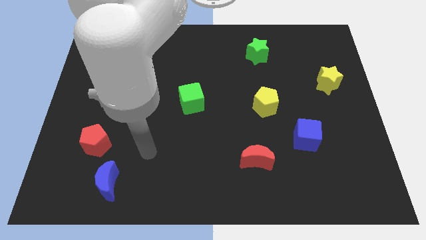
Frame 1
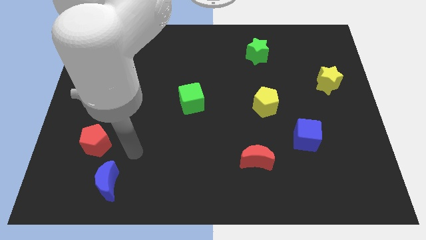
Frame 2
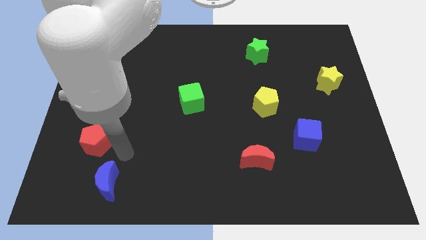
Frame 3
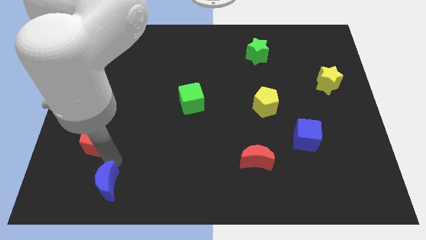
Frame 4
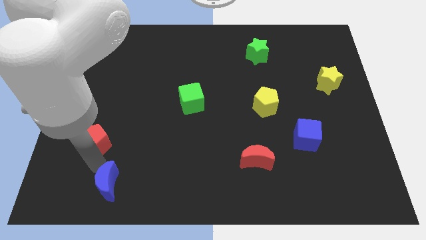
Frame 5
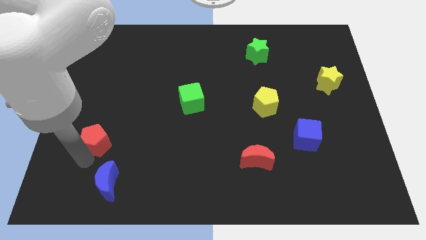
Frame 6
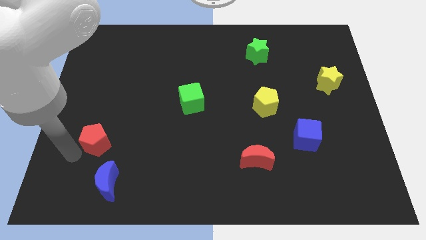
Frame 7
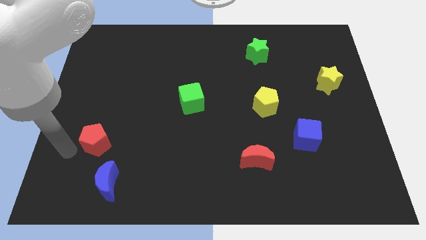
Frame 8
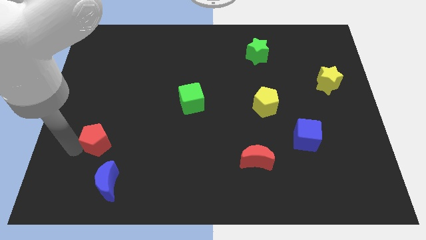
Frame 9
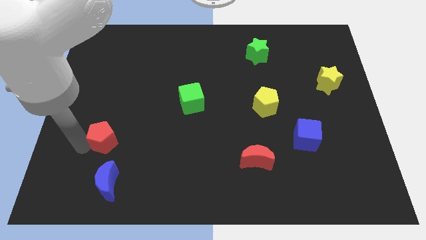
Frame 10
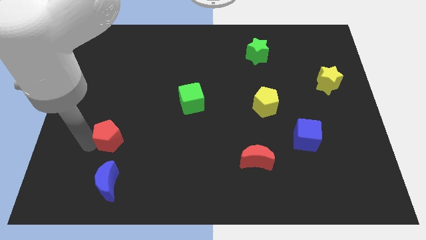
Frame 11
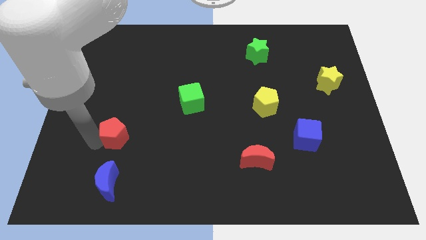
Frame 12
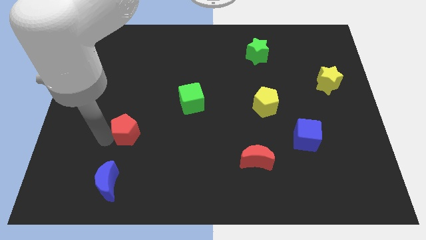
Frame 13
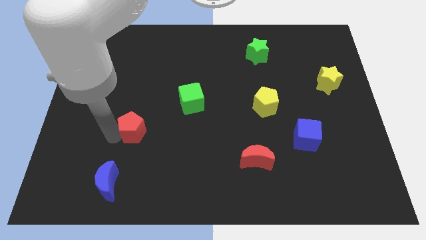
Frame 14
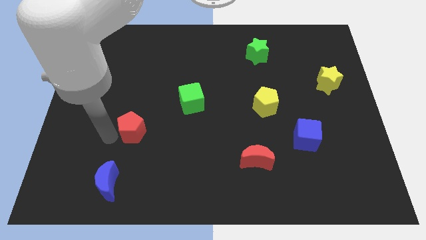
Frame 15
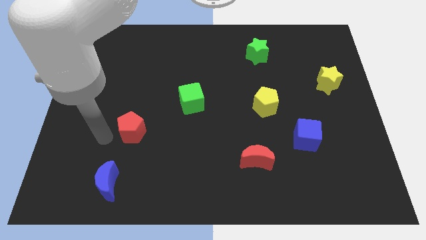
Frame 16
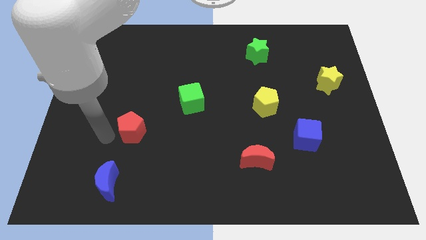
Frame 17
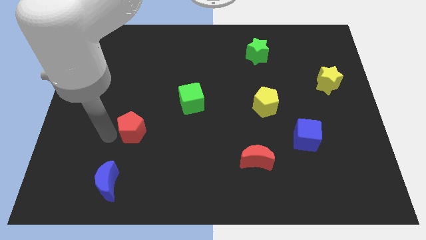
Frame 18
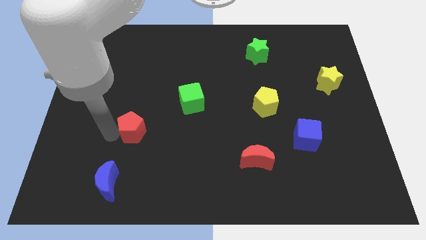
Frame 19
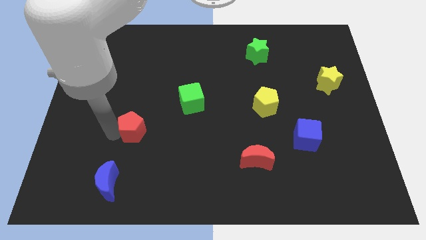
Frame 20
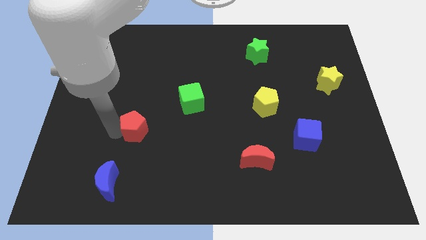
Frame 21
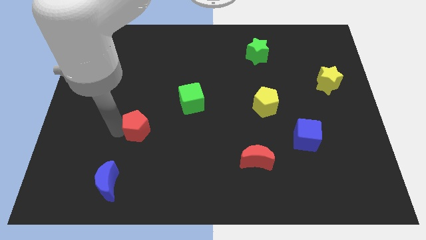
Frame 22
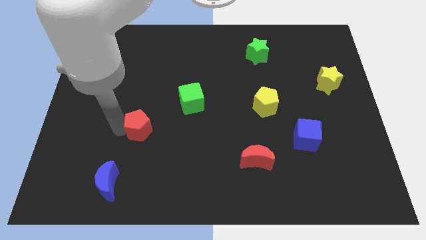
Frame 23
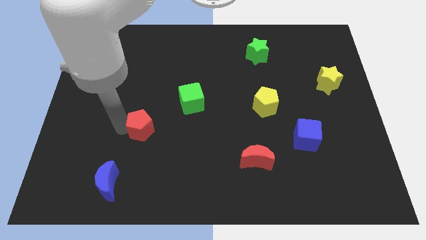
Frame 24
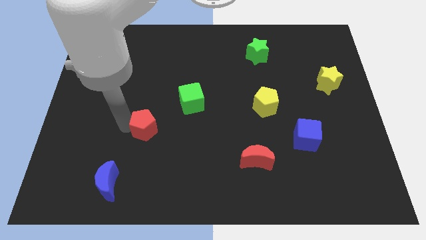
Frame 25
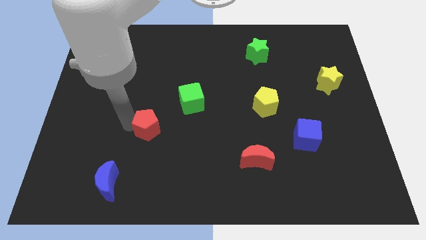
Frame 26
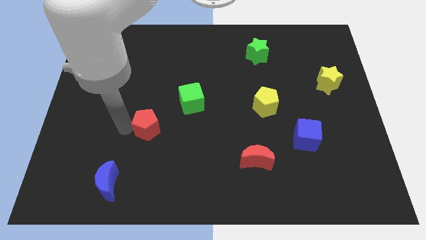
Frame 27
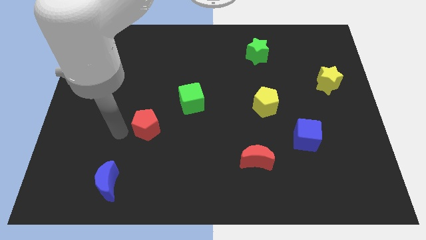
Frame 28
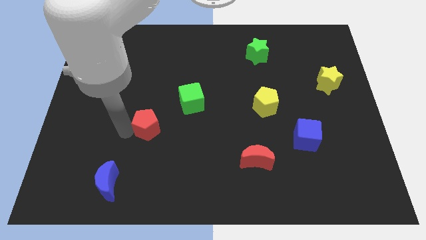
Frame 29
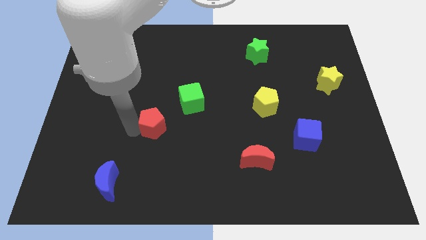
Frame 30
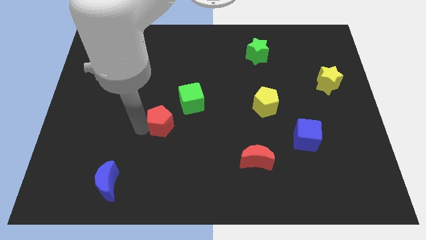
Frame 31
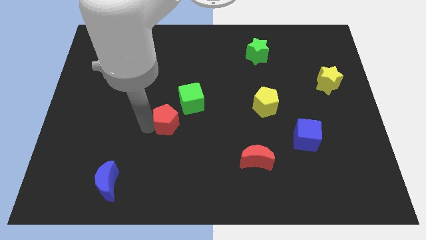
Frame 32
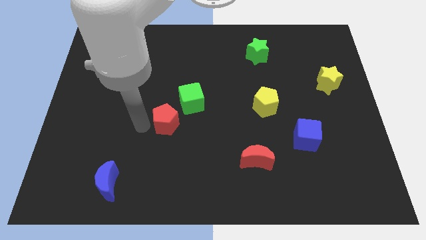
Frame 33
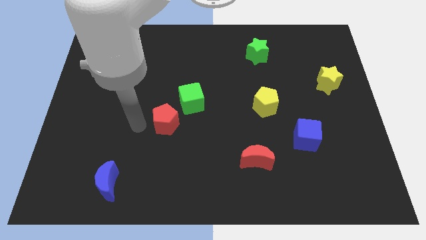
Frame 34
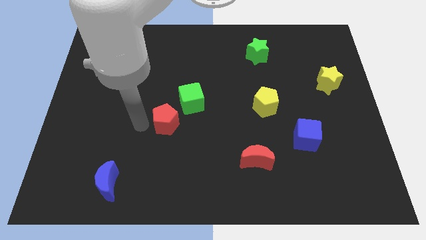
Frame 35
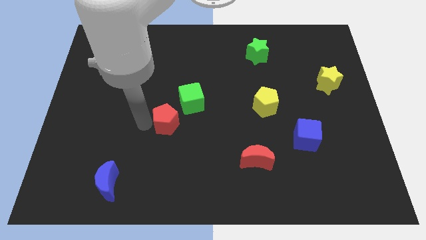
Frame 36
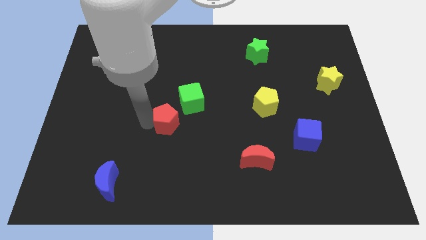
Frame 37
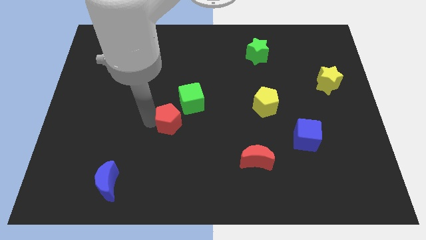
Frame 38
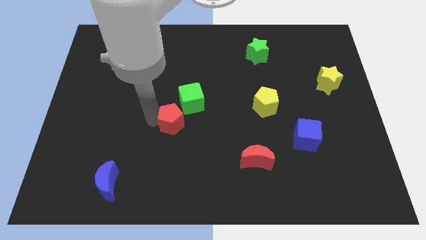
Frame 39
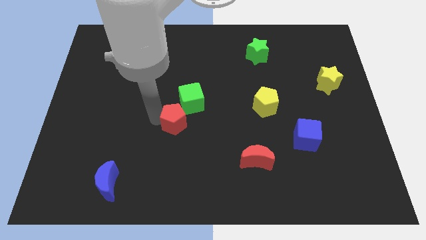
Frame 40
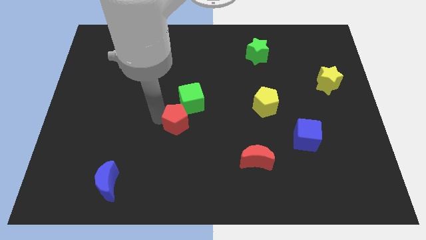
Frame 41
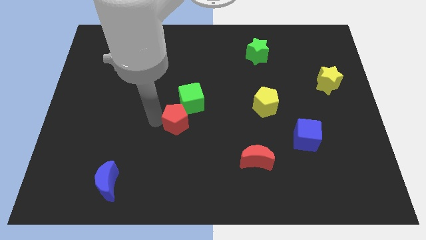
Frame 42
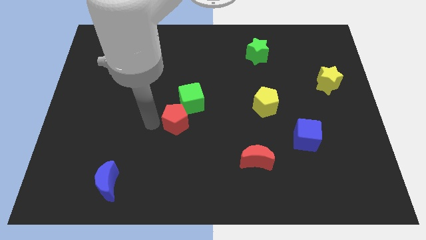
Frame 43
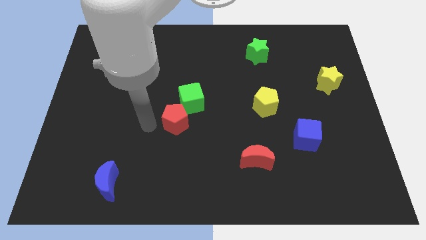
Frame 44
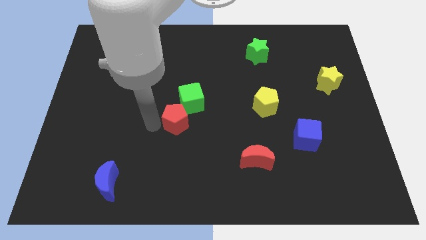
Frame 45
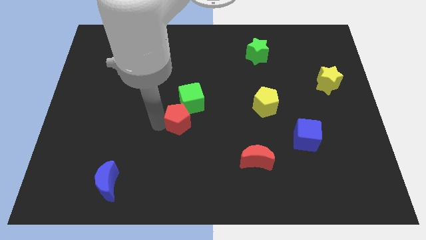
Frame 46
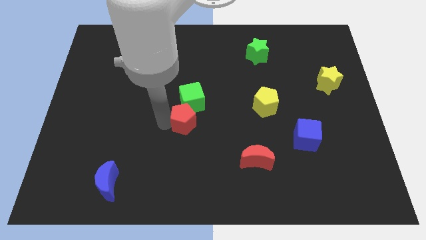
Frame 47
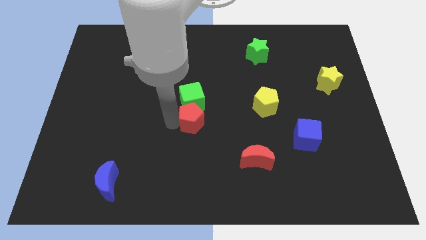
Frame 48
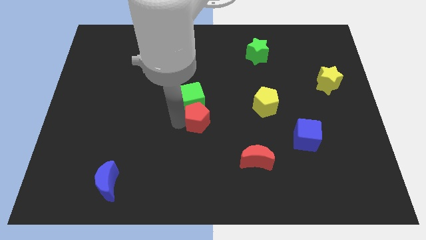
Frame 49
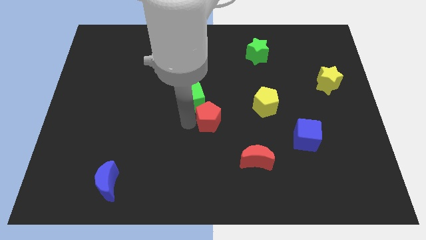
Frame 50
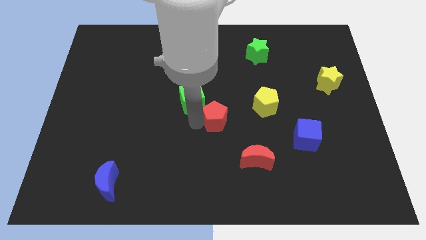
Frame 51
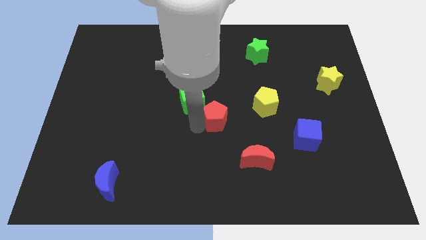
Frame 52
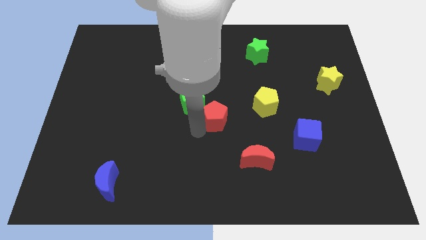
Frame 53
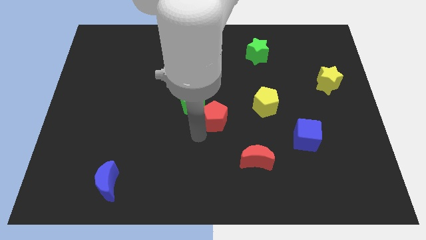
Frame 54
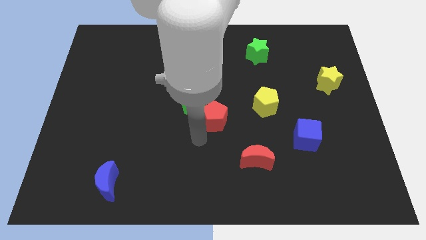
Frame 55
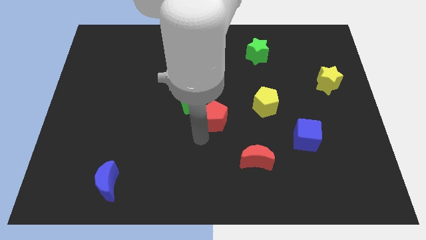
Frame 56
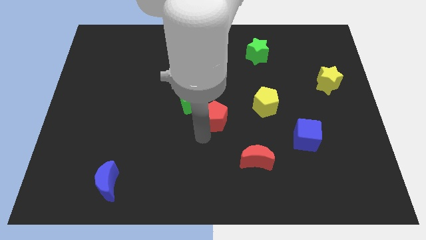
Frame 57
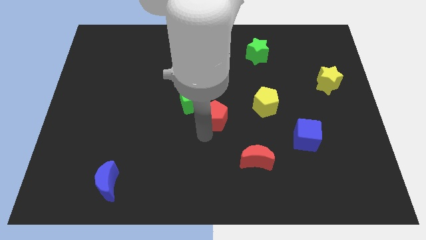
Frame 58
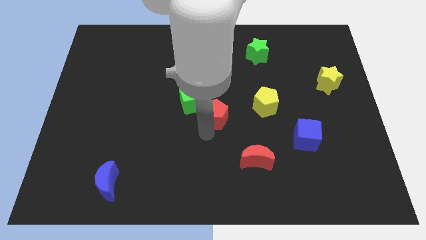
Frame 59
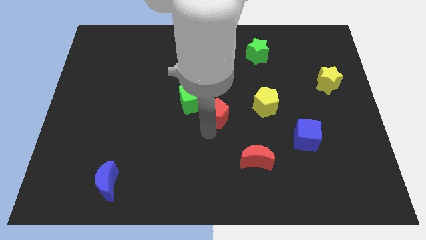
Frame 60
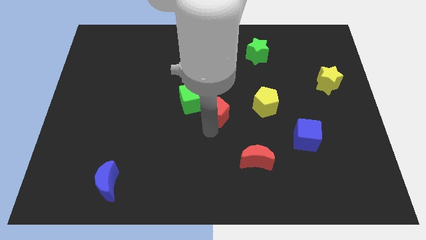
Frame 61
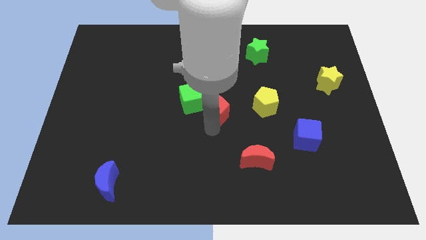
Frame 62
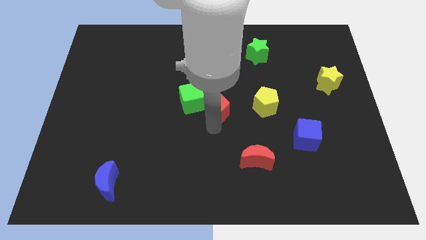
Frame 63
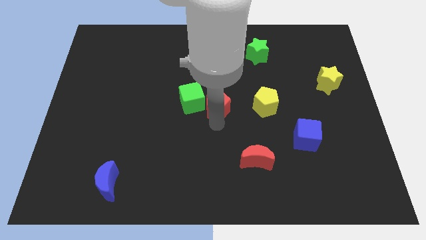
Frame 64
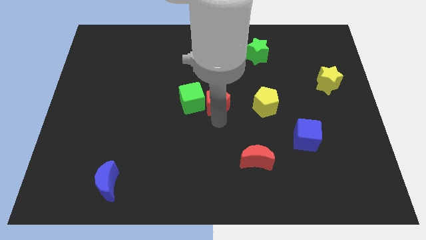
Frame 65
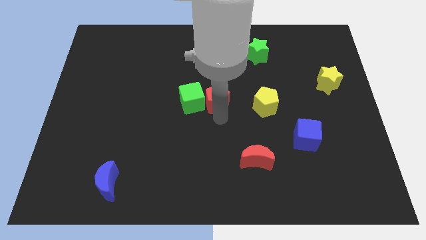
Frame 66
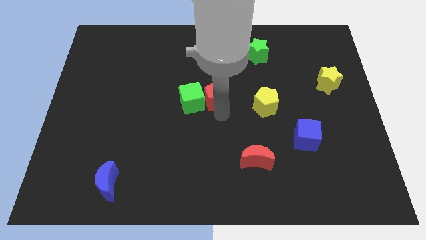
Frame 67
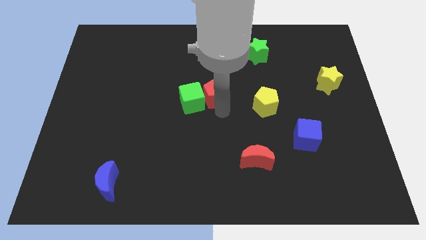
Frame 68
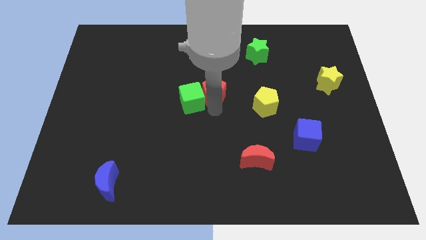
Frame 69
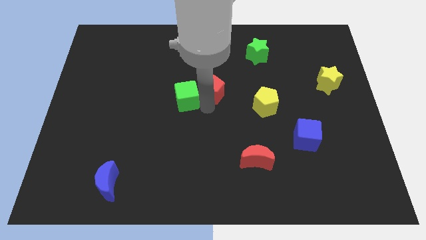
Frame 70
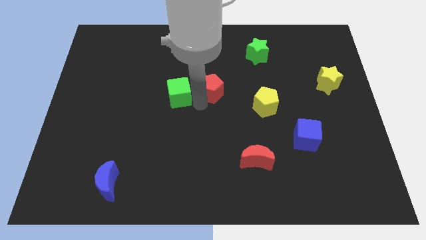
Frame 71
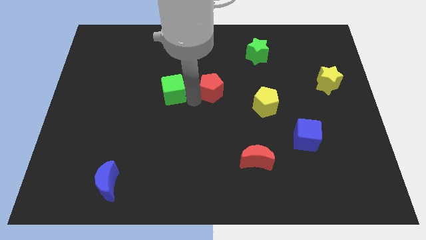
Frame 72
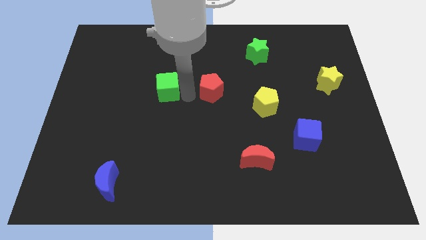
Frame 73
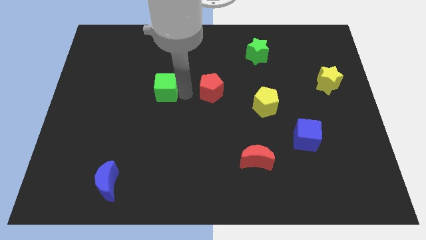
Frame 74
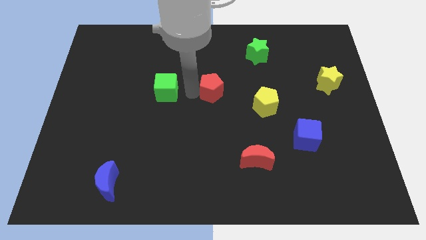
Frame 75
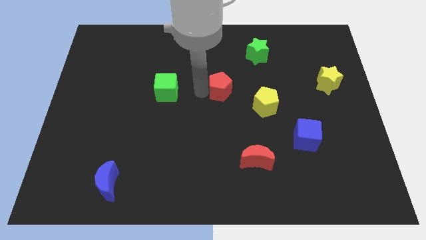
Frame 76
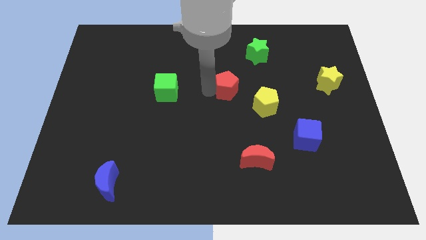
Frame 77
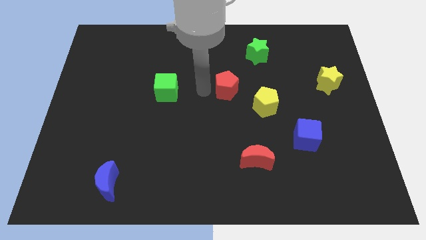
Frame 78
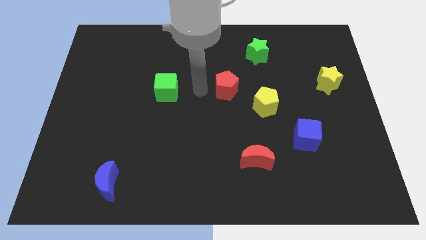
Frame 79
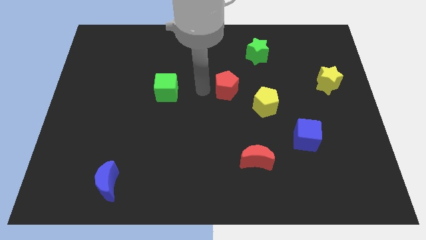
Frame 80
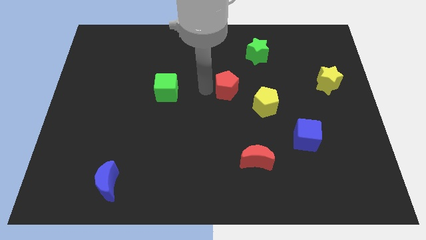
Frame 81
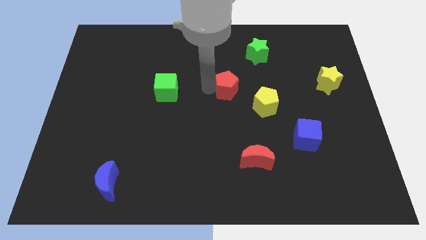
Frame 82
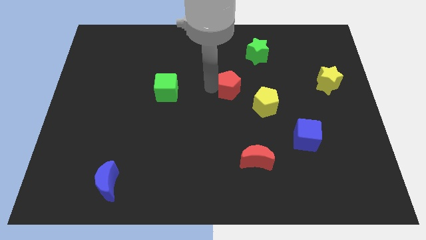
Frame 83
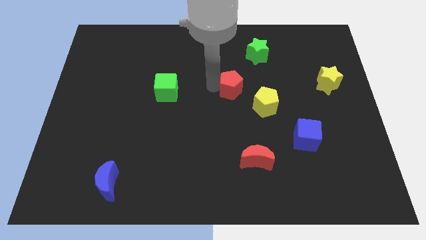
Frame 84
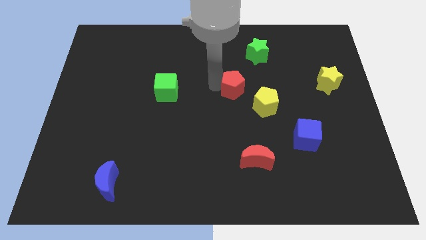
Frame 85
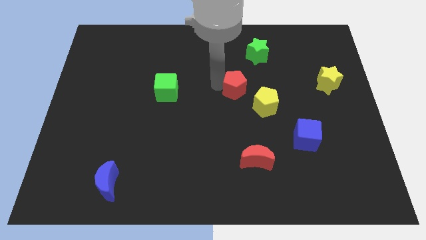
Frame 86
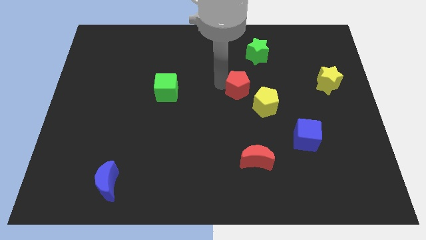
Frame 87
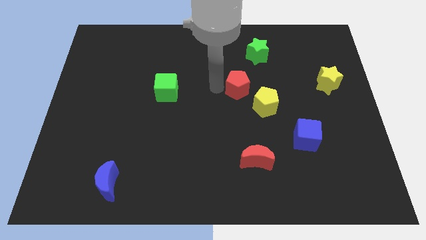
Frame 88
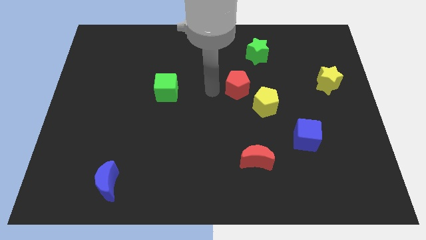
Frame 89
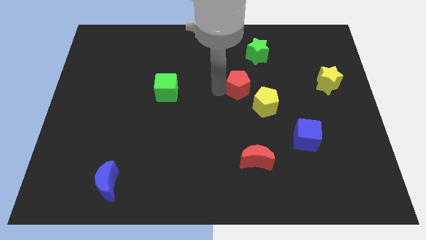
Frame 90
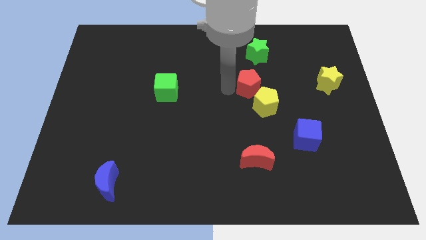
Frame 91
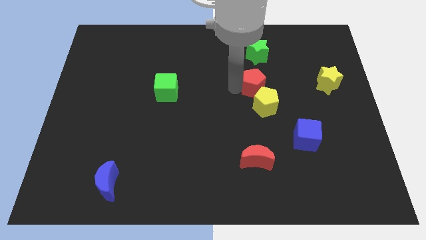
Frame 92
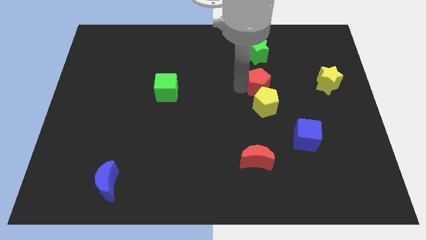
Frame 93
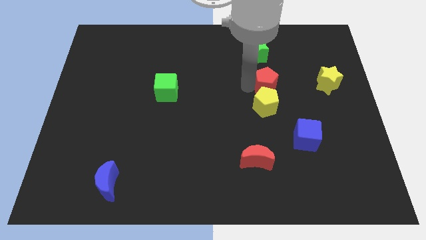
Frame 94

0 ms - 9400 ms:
move the red pentagon just left of the yellow star
